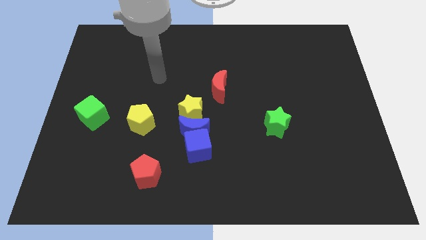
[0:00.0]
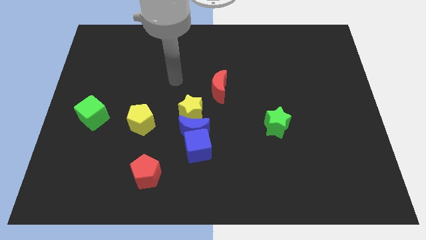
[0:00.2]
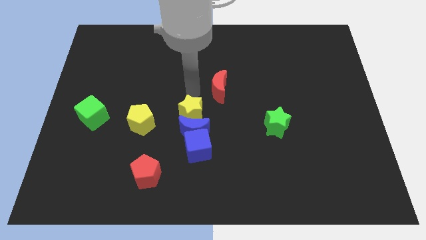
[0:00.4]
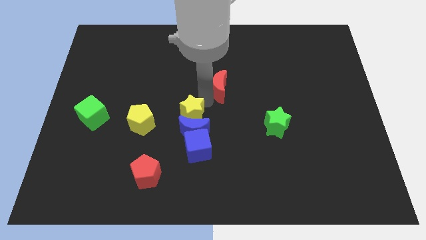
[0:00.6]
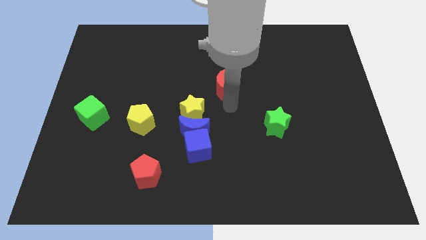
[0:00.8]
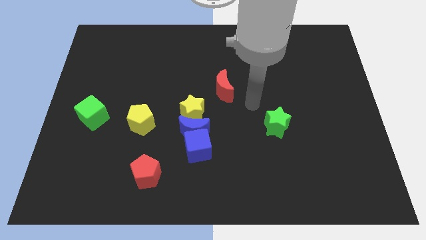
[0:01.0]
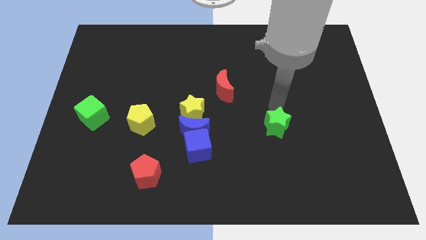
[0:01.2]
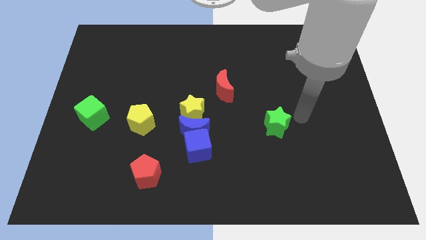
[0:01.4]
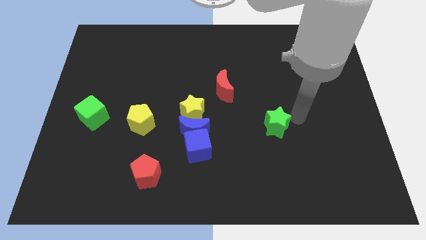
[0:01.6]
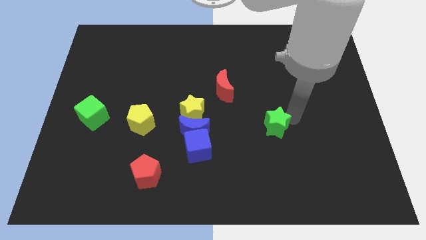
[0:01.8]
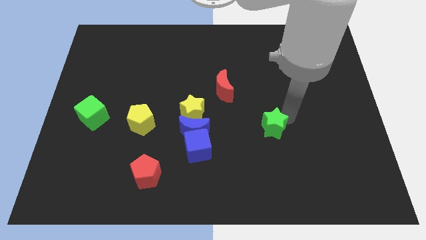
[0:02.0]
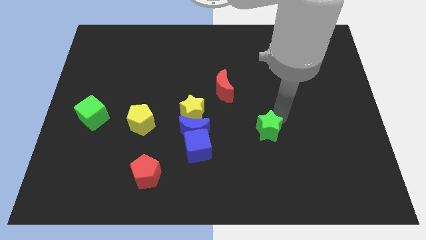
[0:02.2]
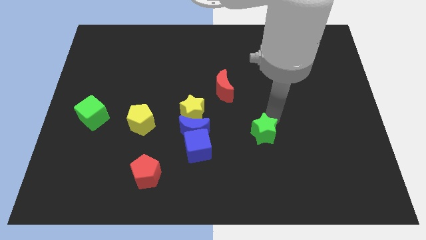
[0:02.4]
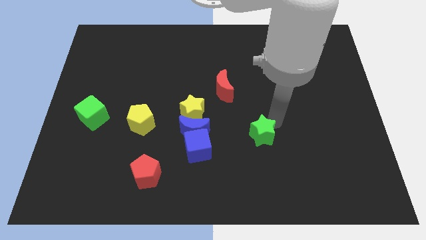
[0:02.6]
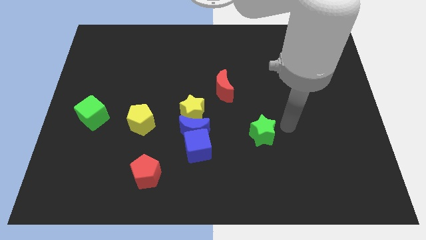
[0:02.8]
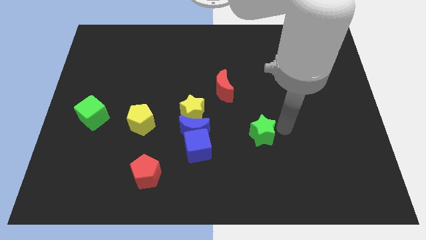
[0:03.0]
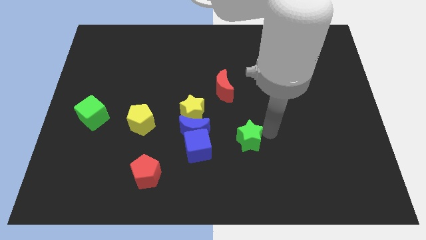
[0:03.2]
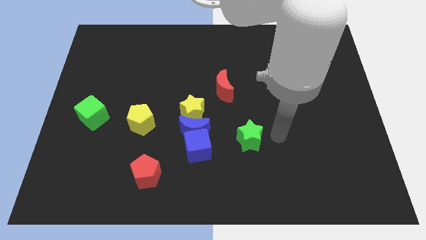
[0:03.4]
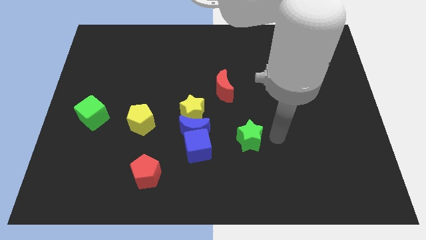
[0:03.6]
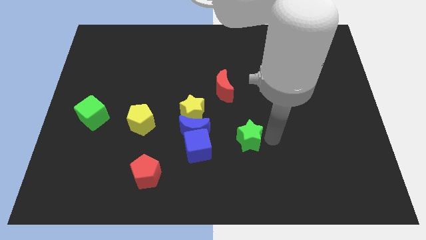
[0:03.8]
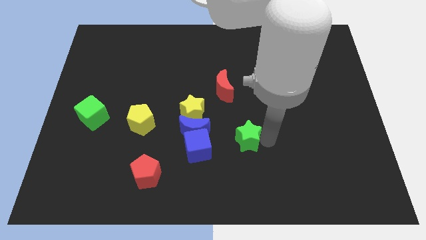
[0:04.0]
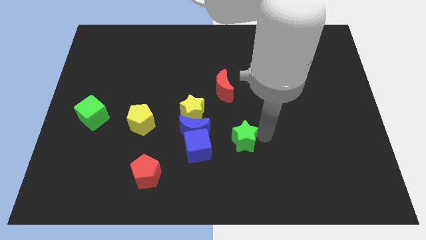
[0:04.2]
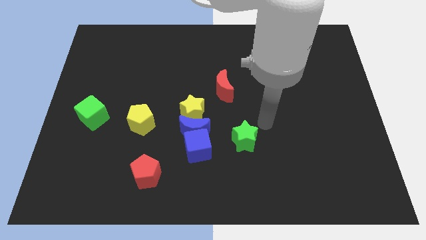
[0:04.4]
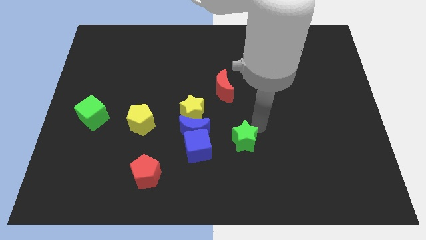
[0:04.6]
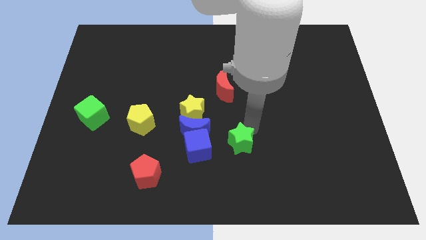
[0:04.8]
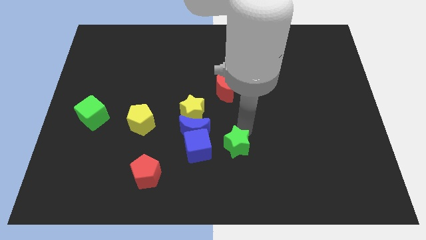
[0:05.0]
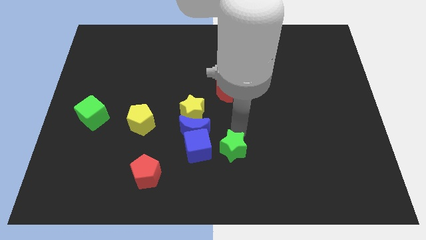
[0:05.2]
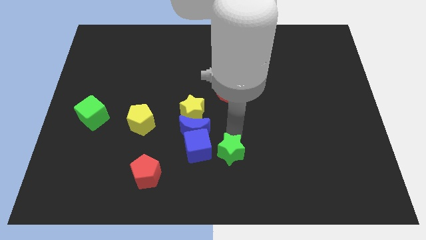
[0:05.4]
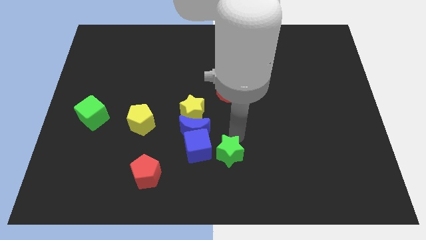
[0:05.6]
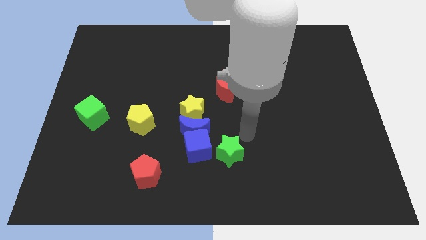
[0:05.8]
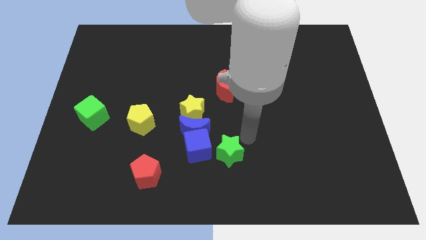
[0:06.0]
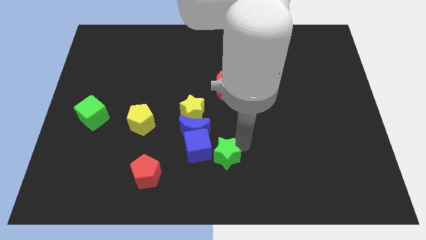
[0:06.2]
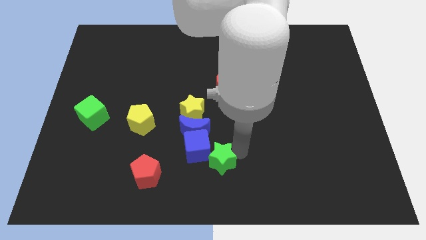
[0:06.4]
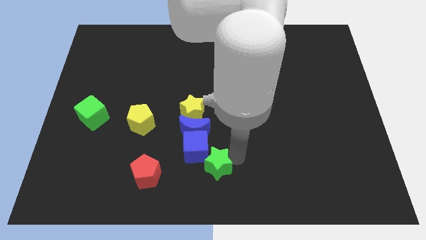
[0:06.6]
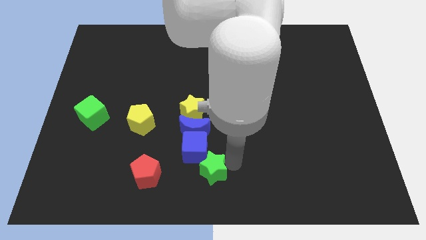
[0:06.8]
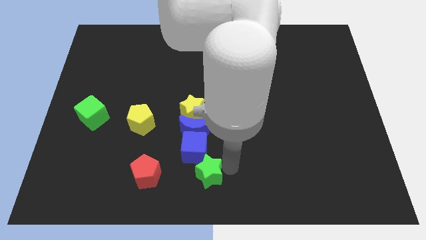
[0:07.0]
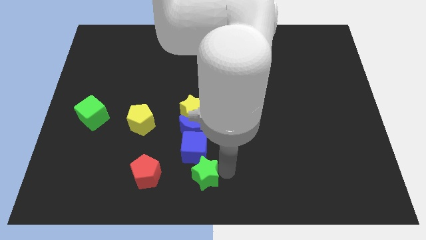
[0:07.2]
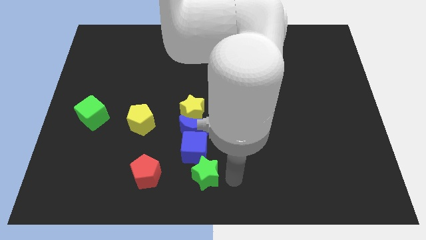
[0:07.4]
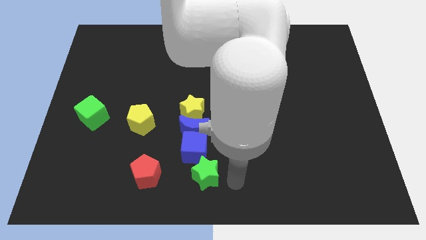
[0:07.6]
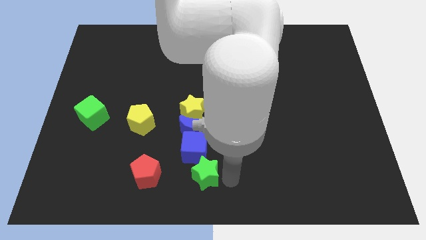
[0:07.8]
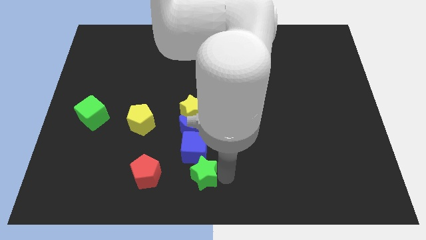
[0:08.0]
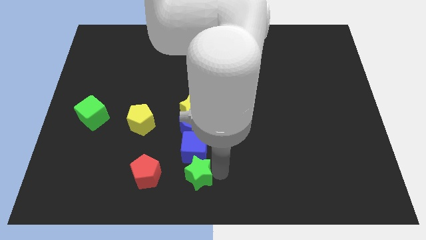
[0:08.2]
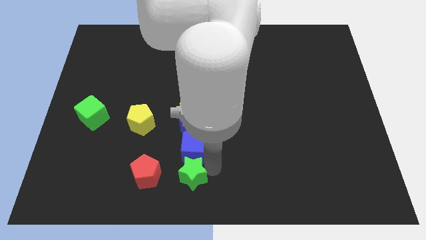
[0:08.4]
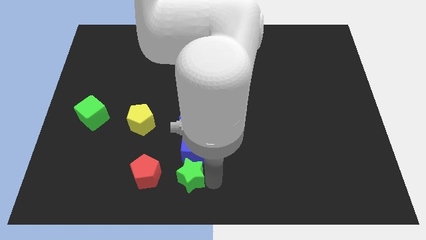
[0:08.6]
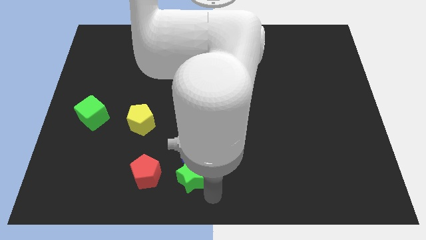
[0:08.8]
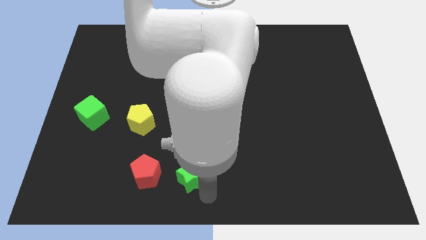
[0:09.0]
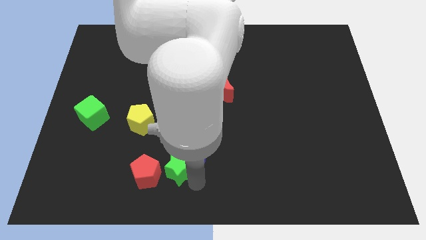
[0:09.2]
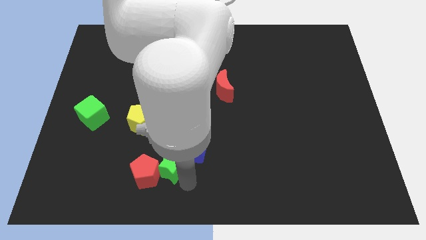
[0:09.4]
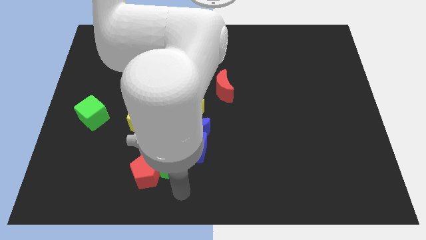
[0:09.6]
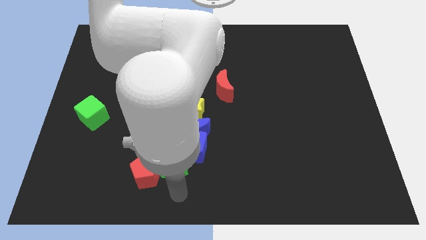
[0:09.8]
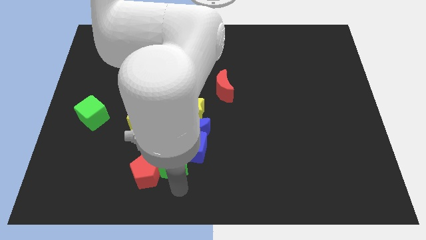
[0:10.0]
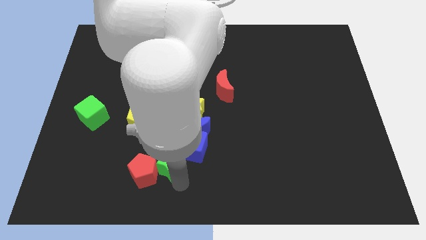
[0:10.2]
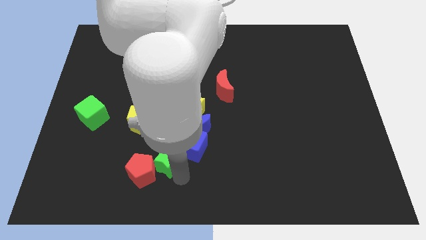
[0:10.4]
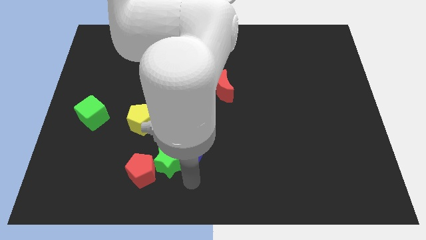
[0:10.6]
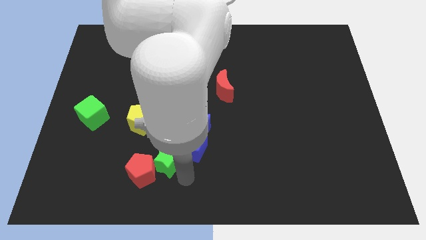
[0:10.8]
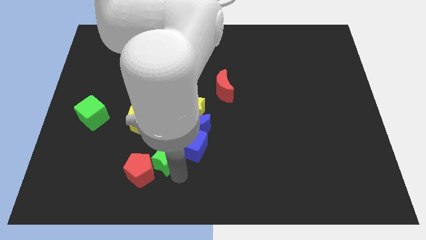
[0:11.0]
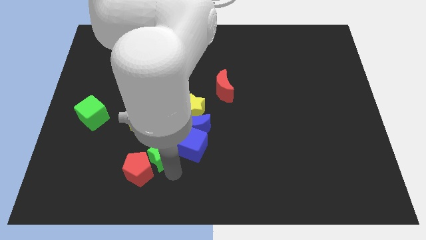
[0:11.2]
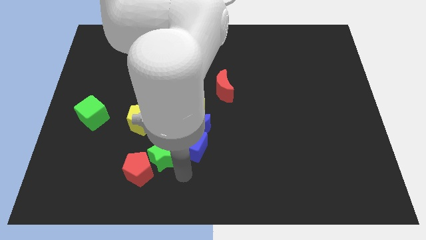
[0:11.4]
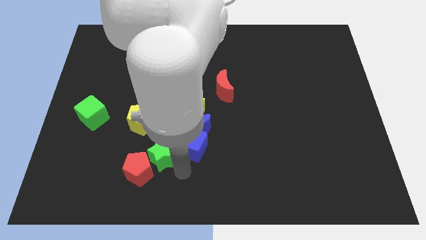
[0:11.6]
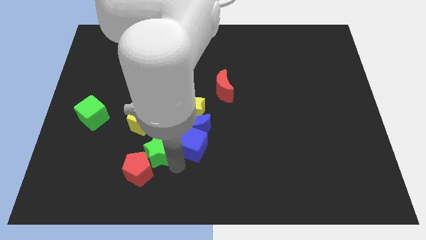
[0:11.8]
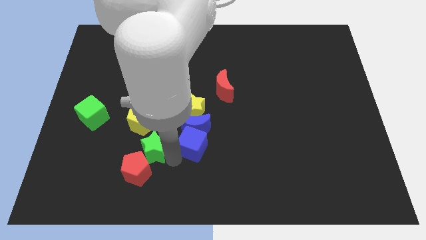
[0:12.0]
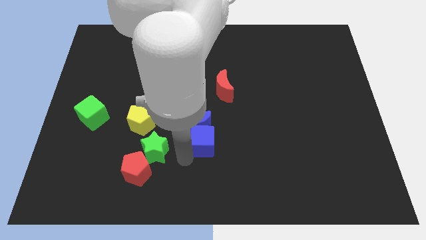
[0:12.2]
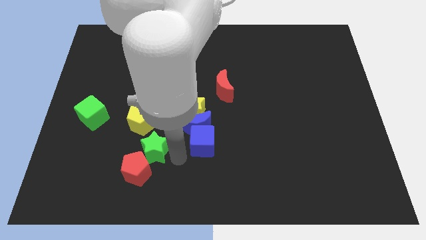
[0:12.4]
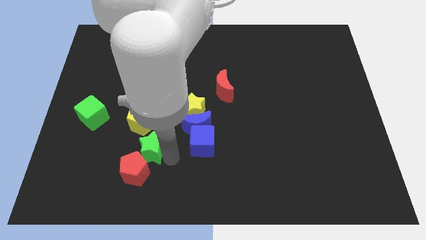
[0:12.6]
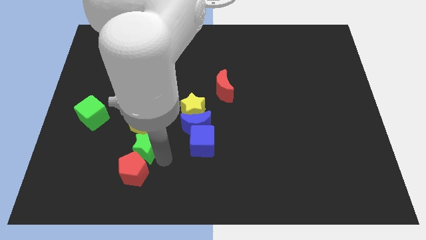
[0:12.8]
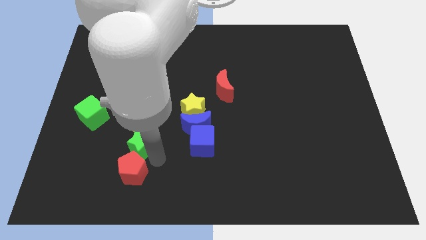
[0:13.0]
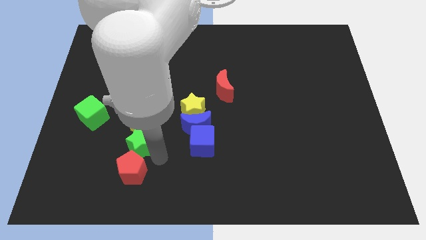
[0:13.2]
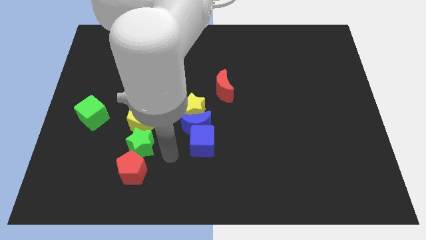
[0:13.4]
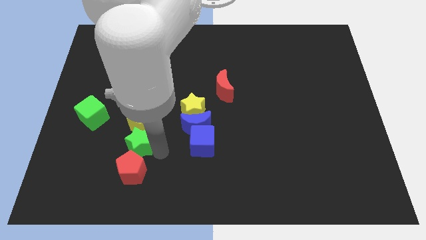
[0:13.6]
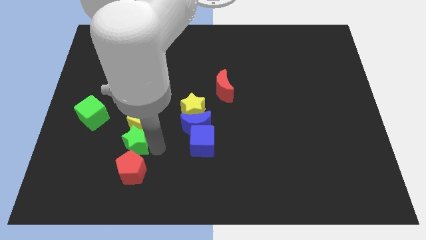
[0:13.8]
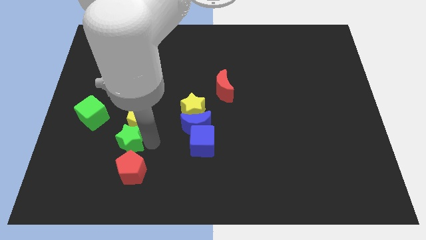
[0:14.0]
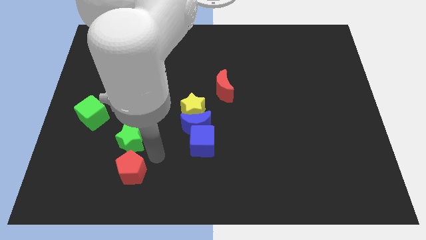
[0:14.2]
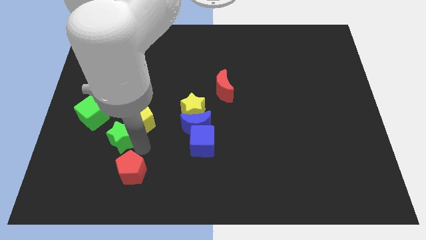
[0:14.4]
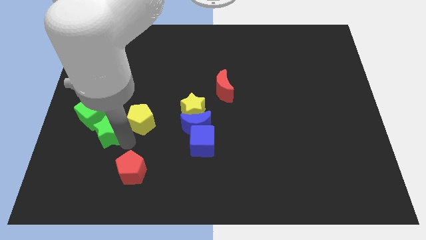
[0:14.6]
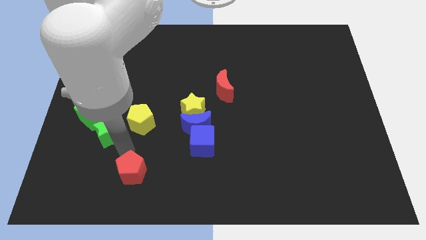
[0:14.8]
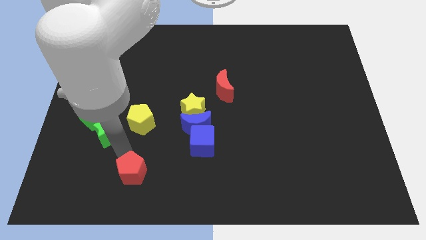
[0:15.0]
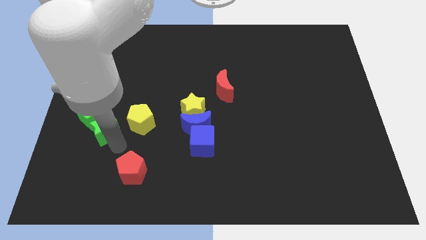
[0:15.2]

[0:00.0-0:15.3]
put the green star to the green cube

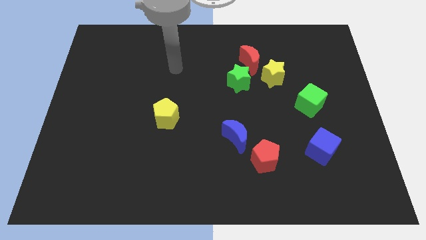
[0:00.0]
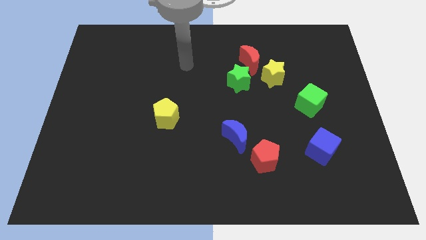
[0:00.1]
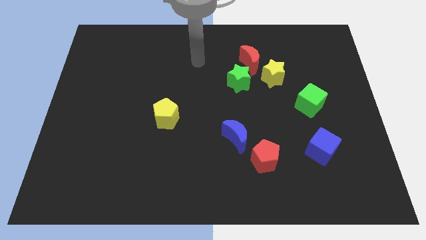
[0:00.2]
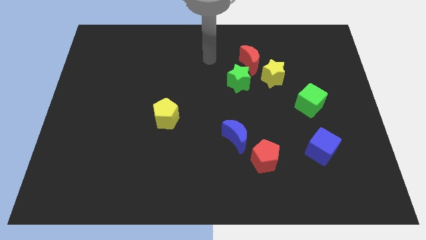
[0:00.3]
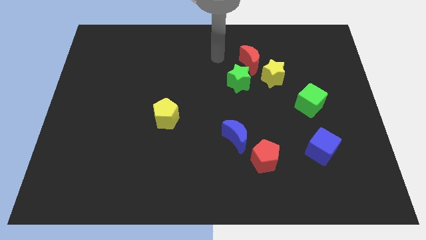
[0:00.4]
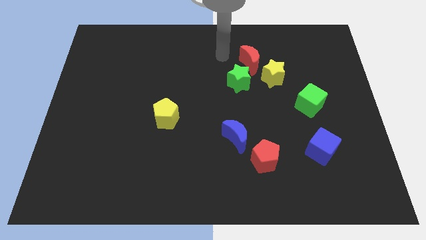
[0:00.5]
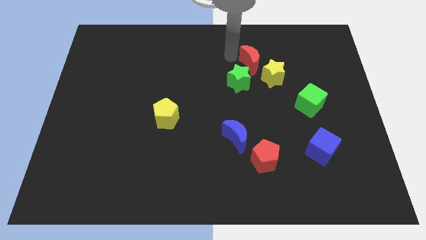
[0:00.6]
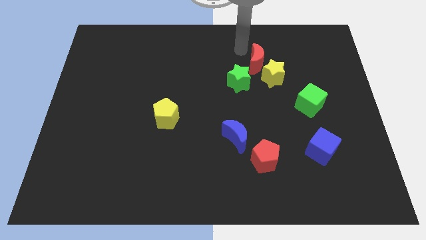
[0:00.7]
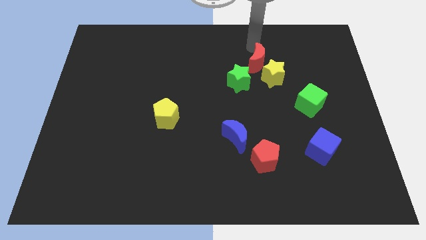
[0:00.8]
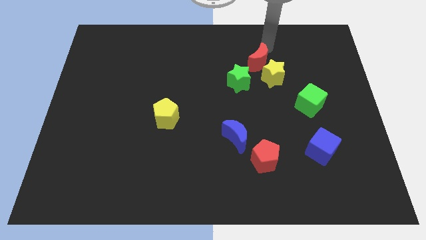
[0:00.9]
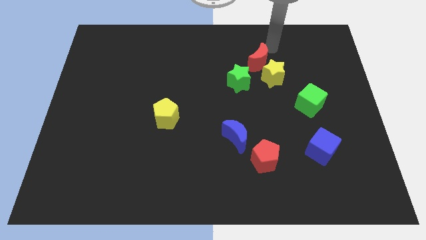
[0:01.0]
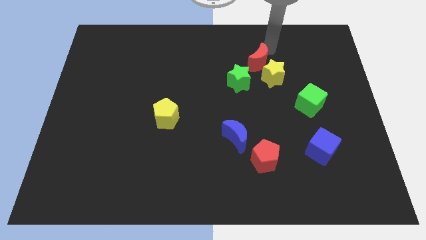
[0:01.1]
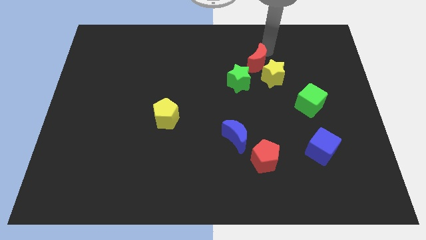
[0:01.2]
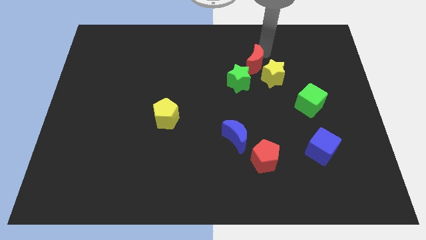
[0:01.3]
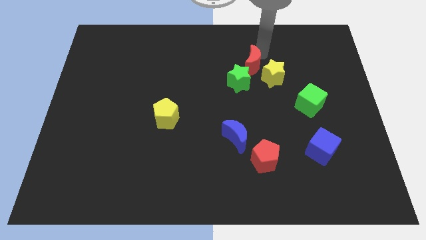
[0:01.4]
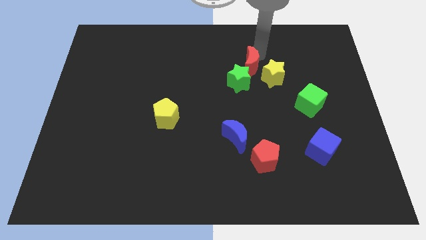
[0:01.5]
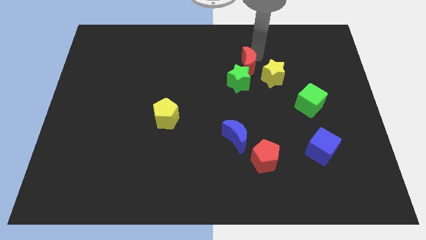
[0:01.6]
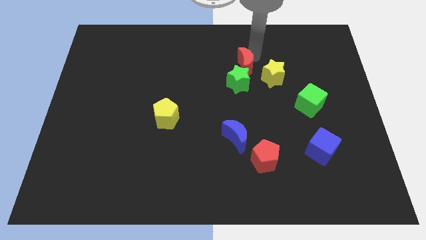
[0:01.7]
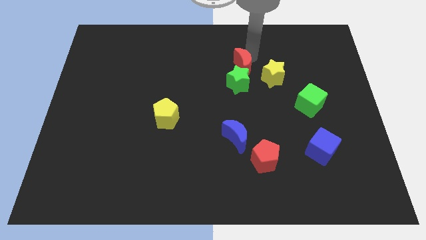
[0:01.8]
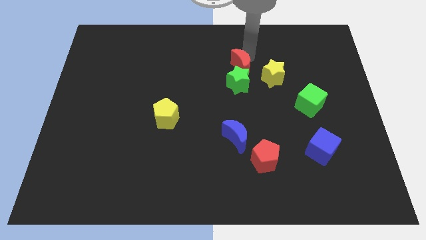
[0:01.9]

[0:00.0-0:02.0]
put the red moon close to the green star
